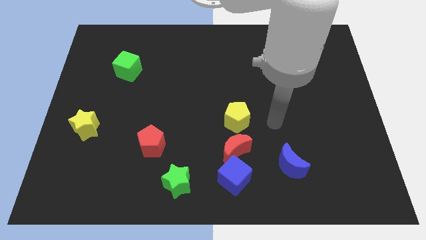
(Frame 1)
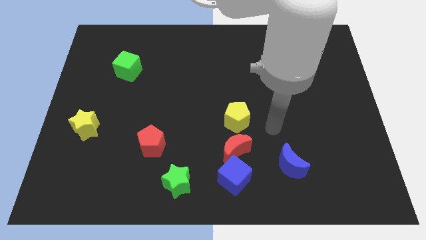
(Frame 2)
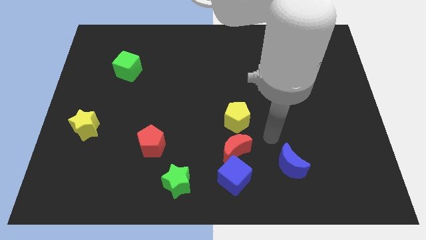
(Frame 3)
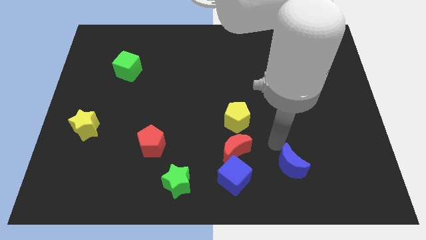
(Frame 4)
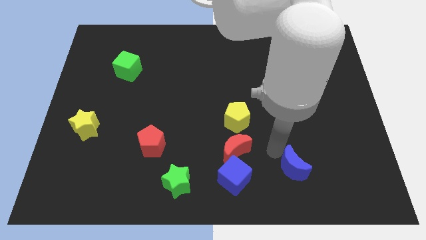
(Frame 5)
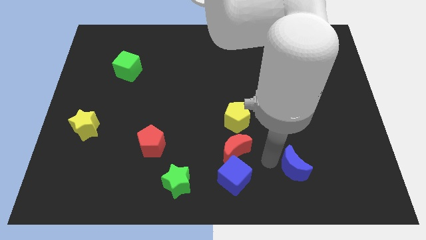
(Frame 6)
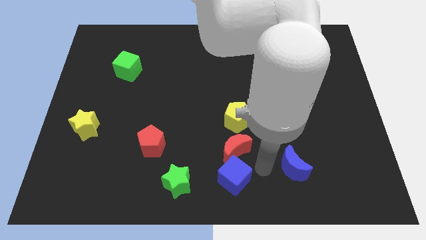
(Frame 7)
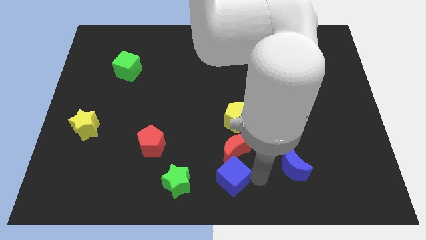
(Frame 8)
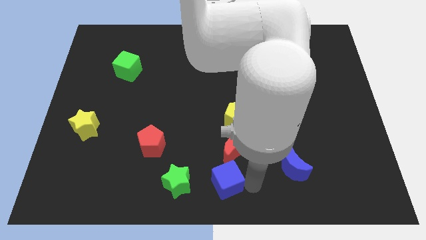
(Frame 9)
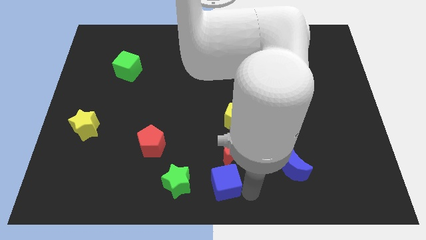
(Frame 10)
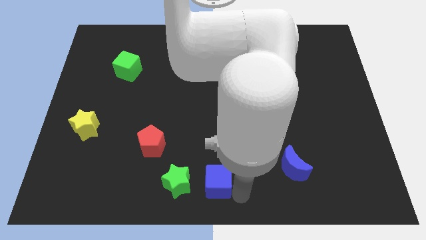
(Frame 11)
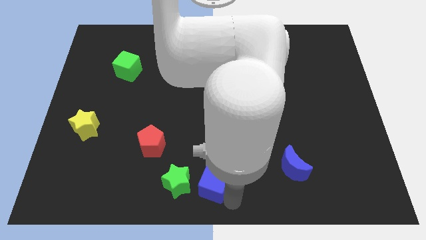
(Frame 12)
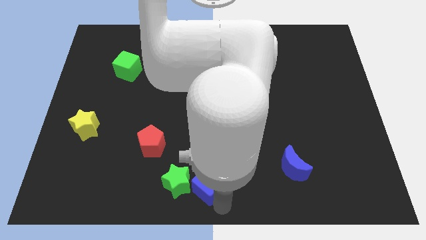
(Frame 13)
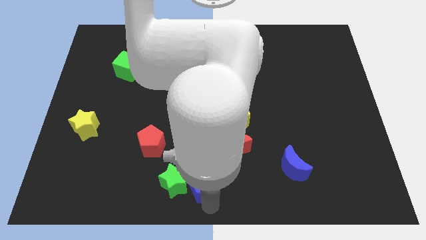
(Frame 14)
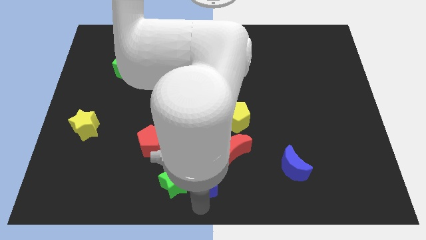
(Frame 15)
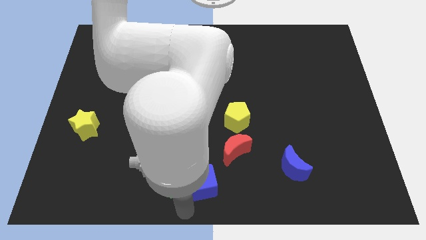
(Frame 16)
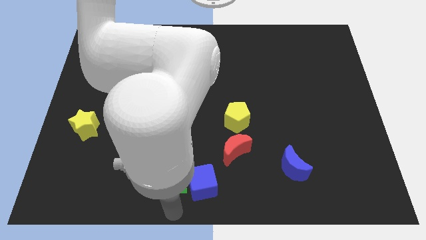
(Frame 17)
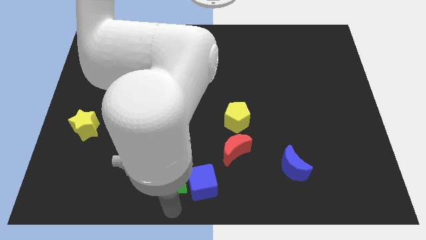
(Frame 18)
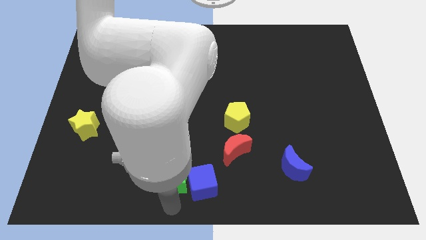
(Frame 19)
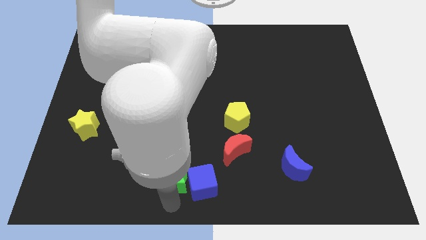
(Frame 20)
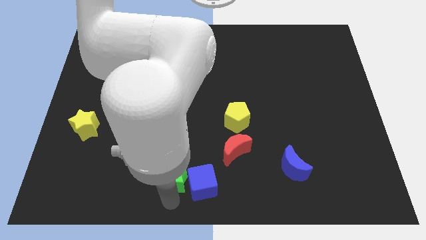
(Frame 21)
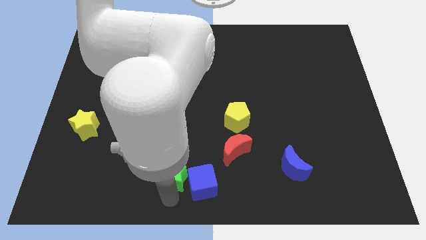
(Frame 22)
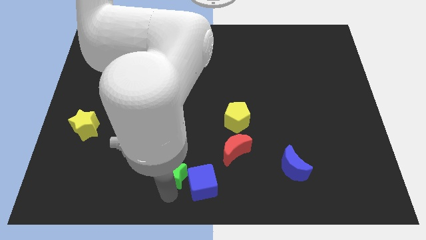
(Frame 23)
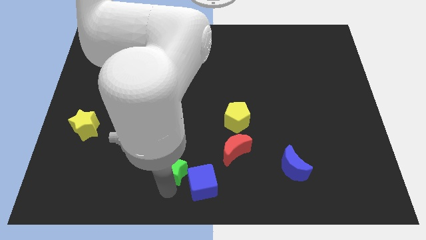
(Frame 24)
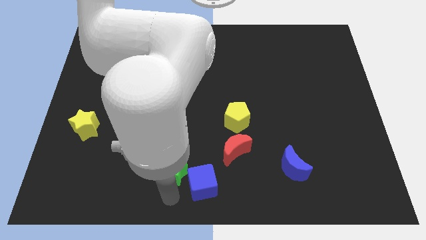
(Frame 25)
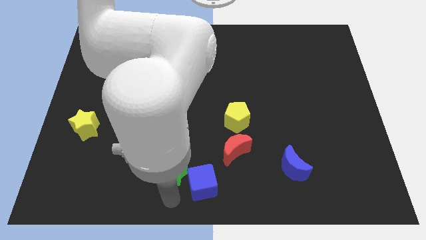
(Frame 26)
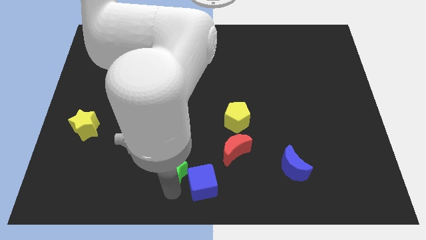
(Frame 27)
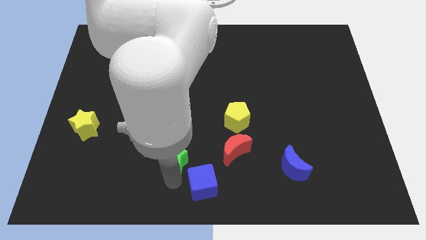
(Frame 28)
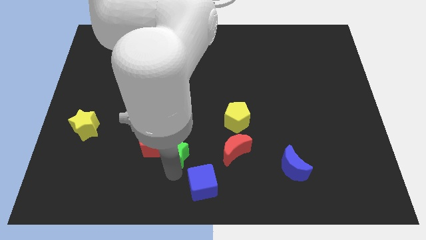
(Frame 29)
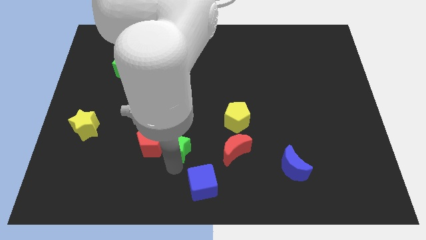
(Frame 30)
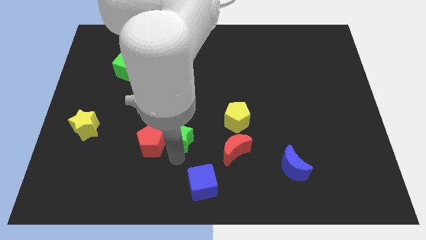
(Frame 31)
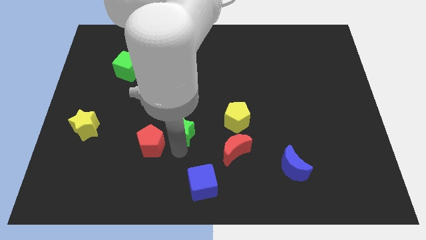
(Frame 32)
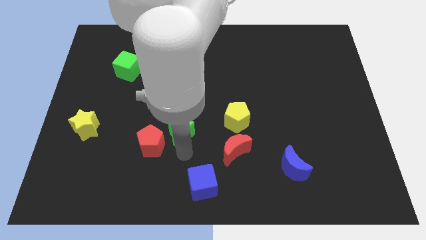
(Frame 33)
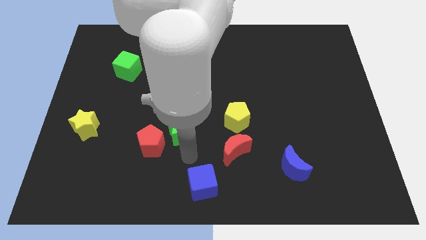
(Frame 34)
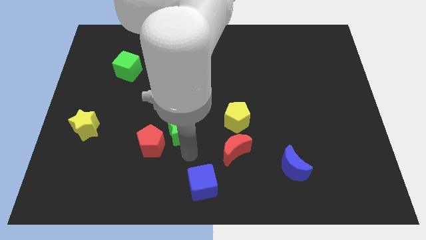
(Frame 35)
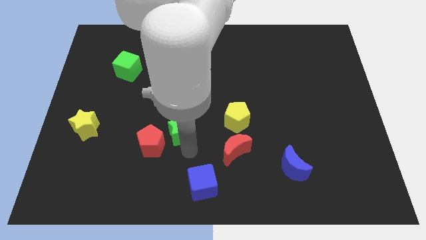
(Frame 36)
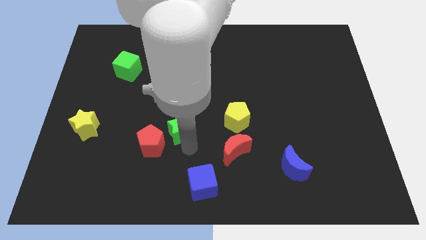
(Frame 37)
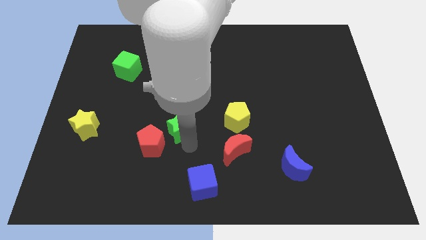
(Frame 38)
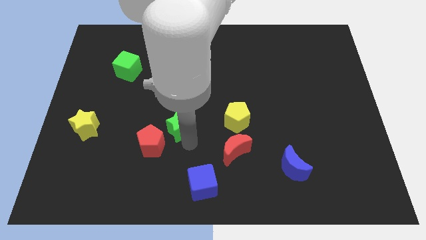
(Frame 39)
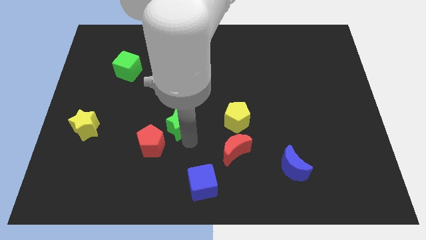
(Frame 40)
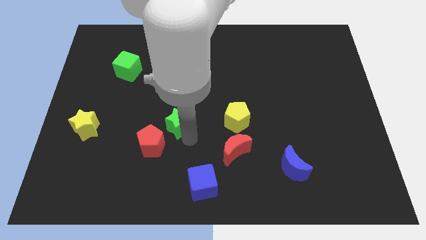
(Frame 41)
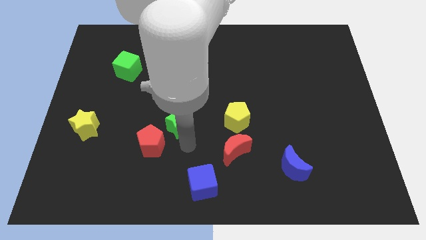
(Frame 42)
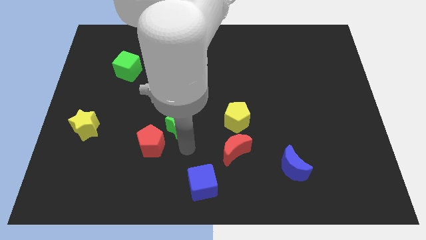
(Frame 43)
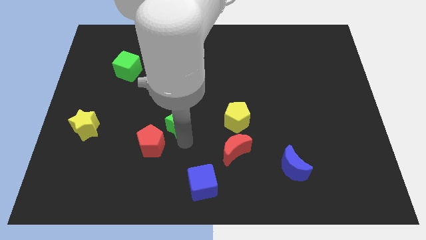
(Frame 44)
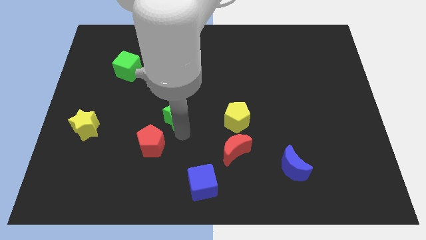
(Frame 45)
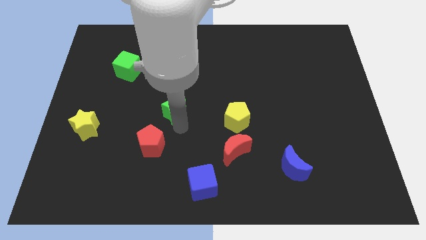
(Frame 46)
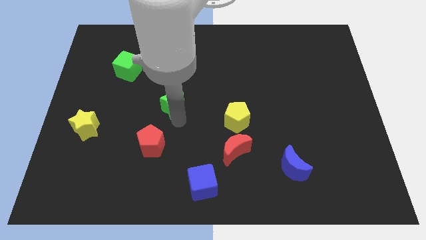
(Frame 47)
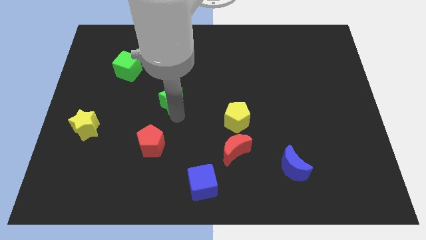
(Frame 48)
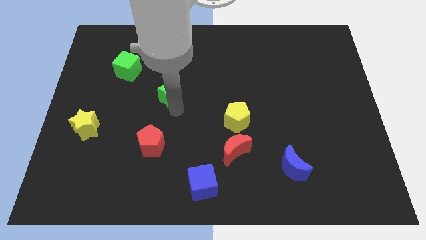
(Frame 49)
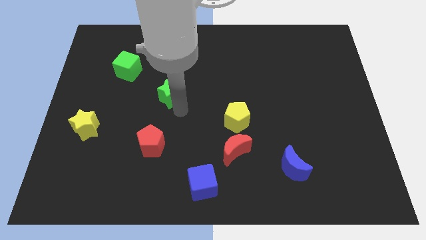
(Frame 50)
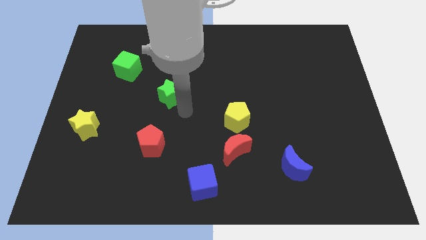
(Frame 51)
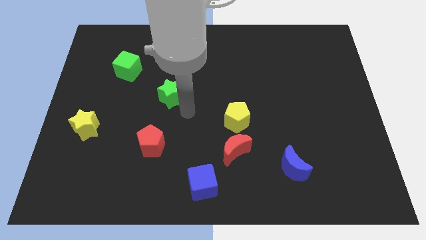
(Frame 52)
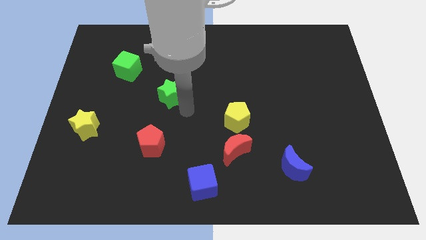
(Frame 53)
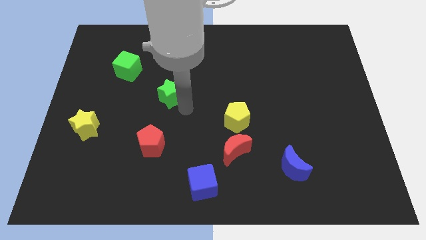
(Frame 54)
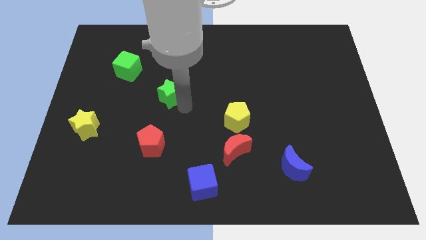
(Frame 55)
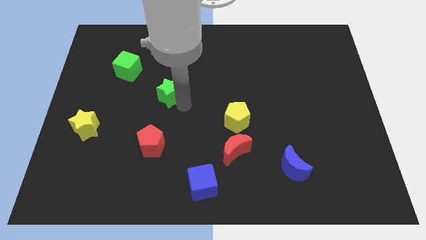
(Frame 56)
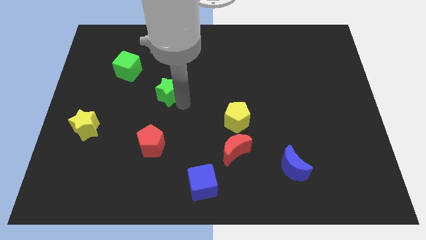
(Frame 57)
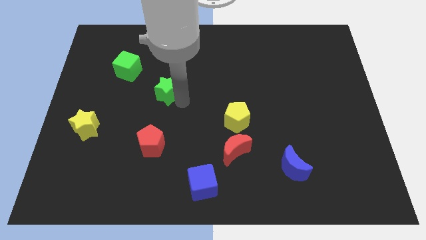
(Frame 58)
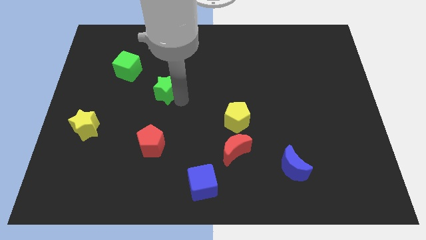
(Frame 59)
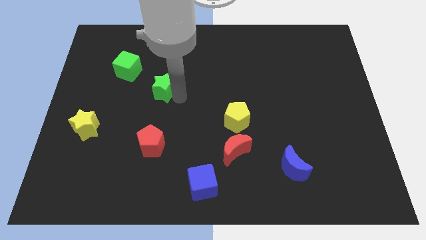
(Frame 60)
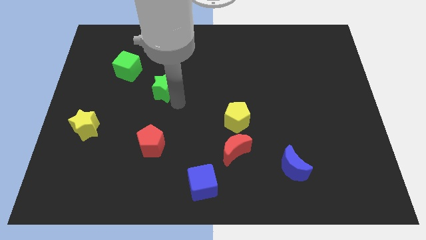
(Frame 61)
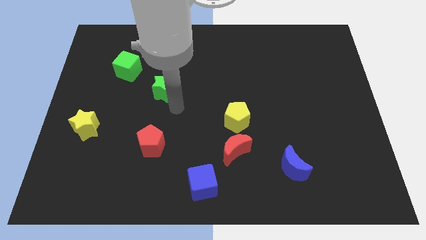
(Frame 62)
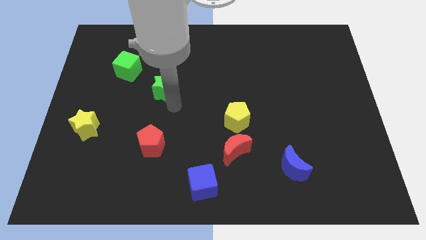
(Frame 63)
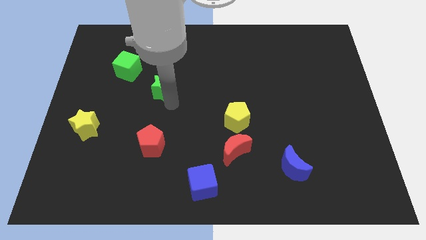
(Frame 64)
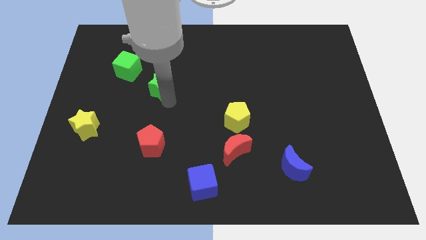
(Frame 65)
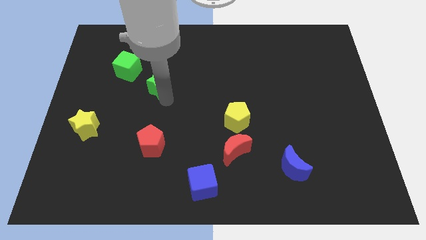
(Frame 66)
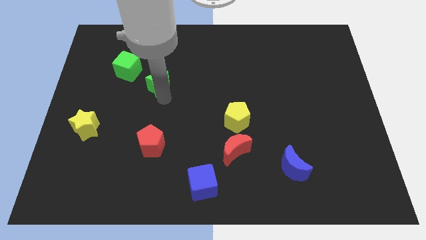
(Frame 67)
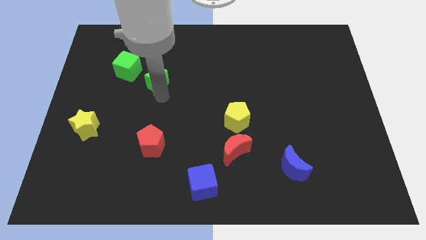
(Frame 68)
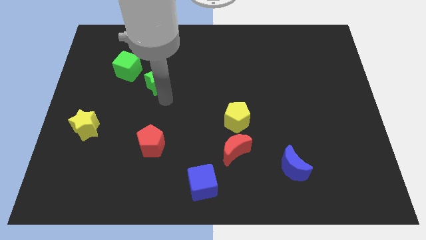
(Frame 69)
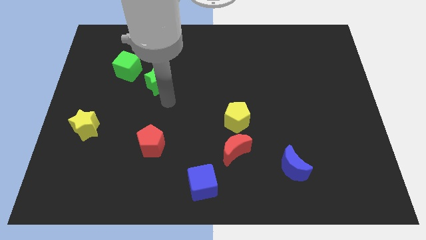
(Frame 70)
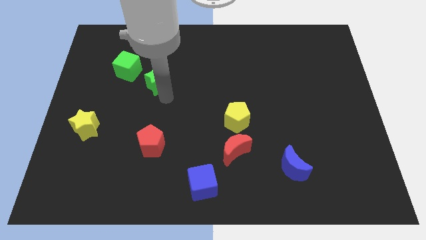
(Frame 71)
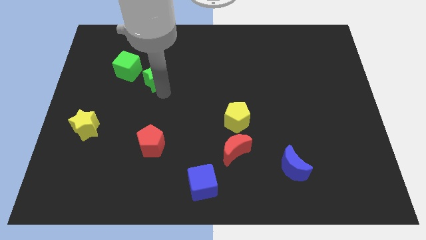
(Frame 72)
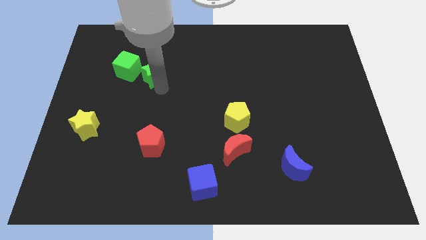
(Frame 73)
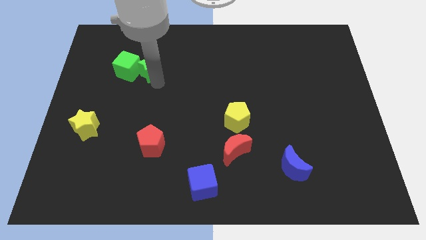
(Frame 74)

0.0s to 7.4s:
slide the green star to the top right of the green cube
